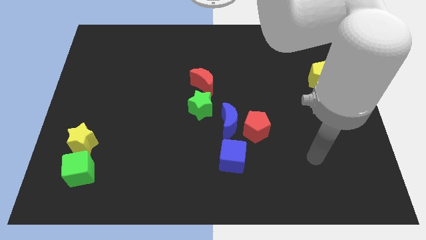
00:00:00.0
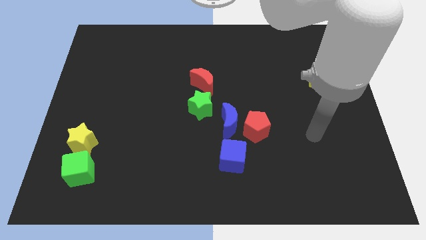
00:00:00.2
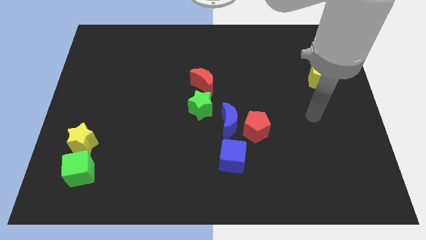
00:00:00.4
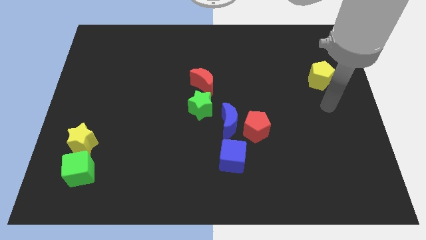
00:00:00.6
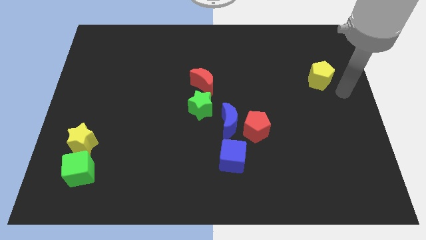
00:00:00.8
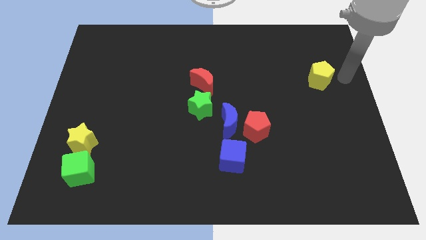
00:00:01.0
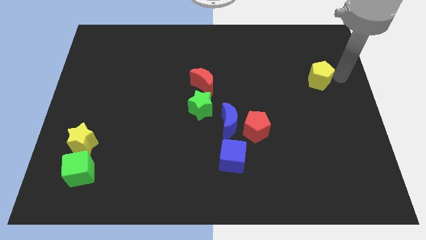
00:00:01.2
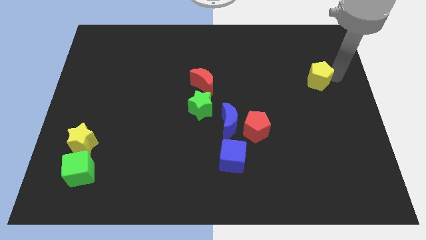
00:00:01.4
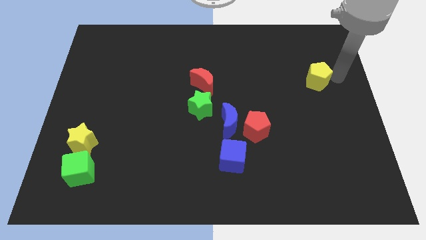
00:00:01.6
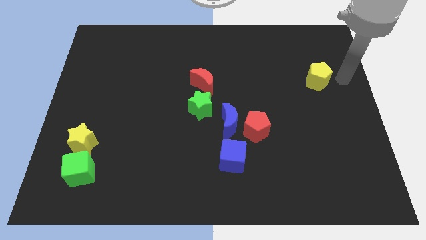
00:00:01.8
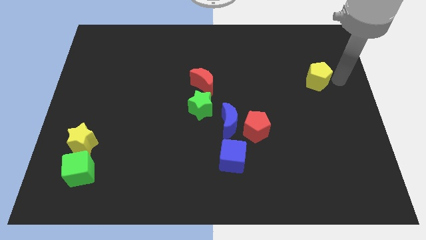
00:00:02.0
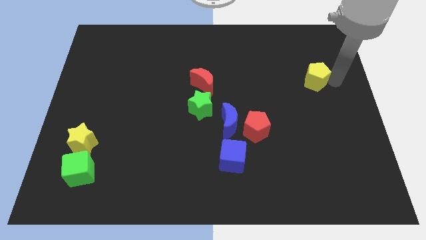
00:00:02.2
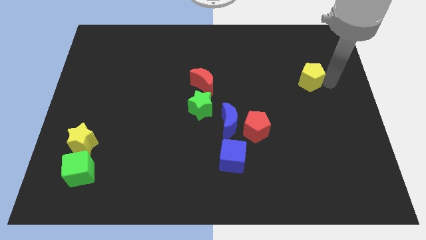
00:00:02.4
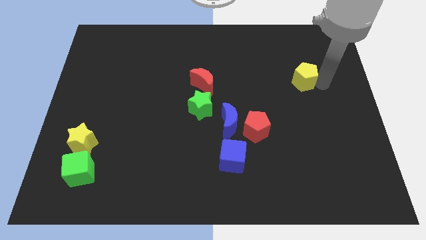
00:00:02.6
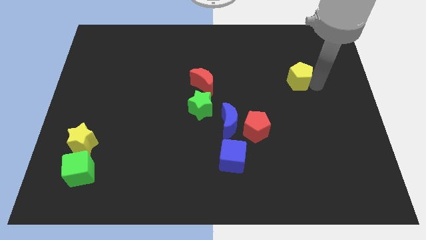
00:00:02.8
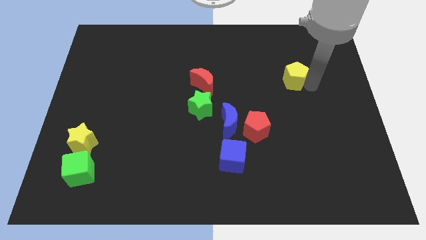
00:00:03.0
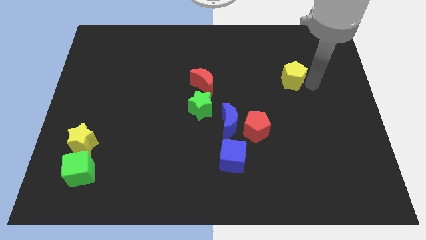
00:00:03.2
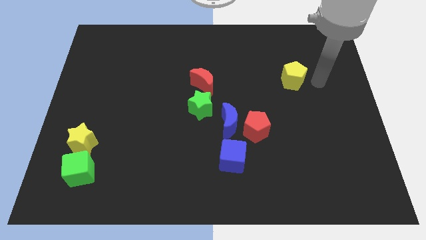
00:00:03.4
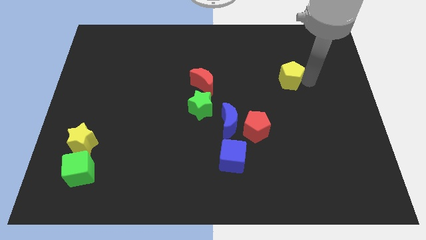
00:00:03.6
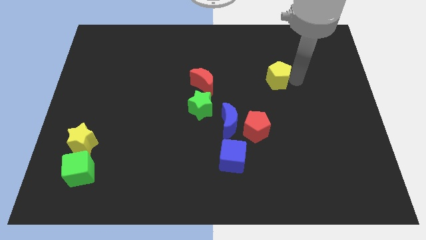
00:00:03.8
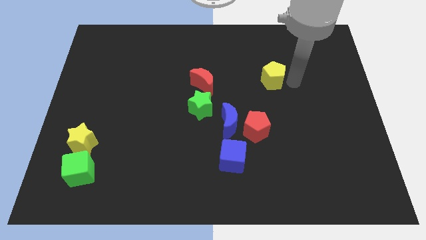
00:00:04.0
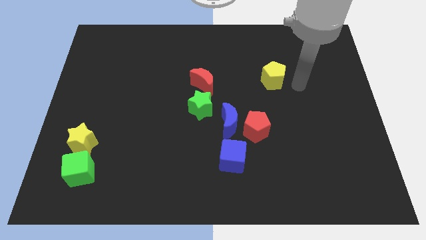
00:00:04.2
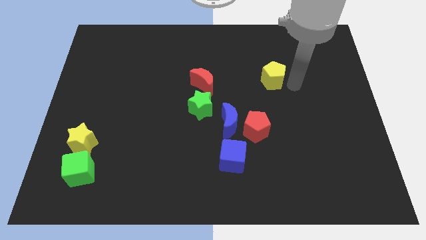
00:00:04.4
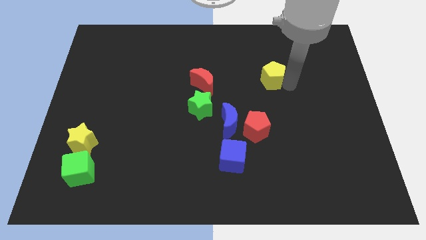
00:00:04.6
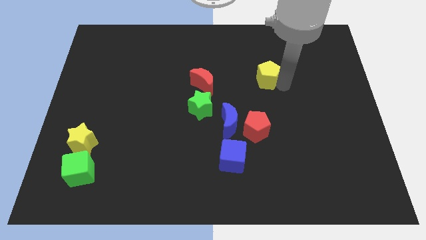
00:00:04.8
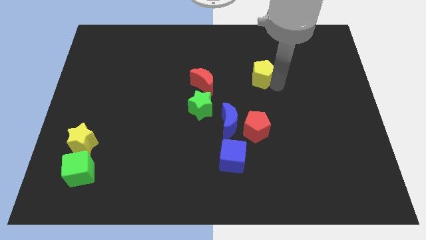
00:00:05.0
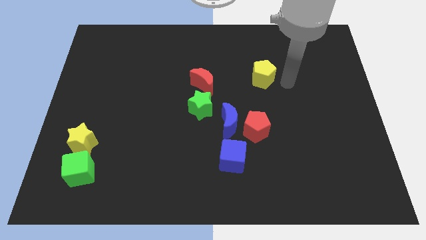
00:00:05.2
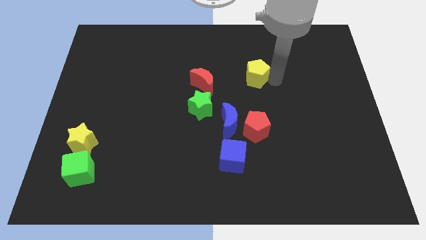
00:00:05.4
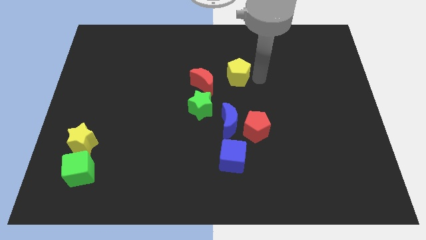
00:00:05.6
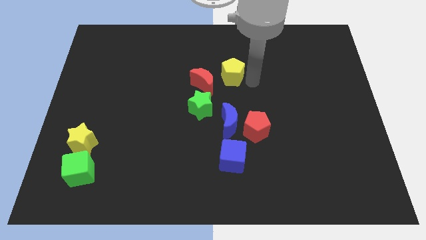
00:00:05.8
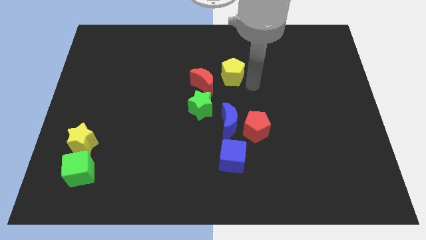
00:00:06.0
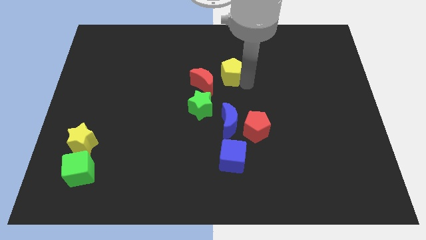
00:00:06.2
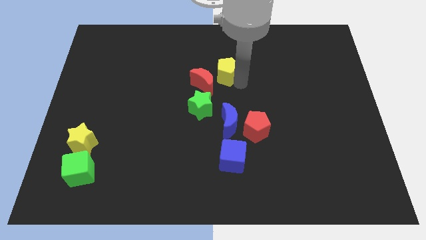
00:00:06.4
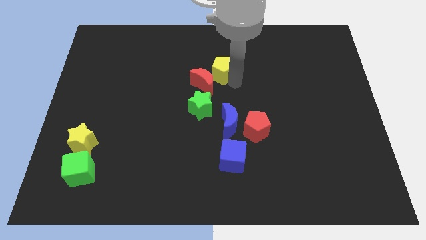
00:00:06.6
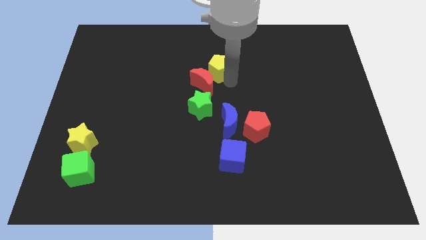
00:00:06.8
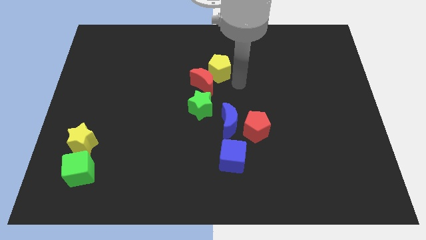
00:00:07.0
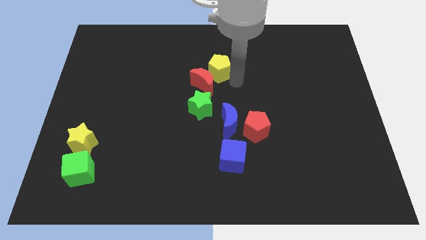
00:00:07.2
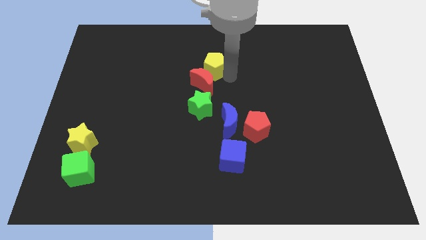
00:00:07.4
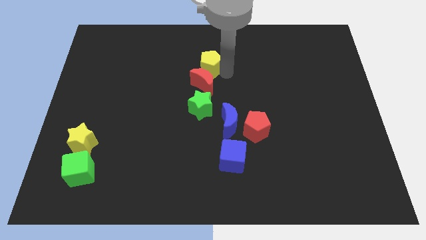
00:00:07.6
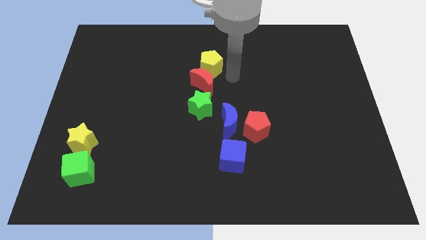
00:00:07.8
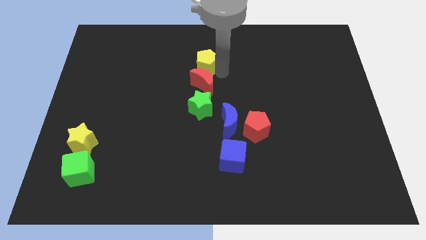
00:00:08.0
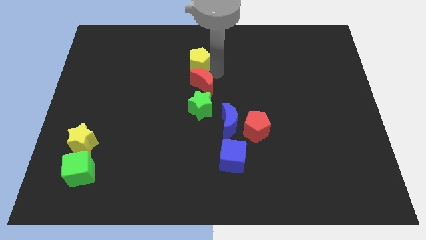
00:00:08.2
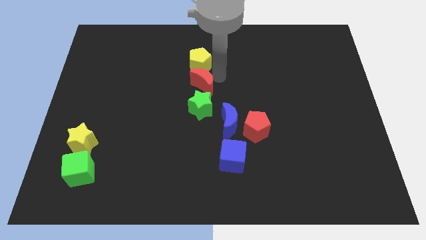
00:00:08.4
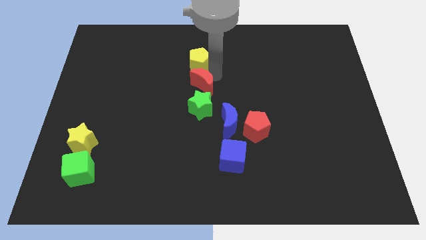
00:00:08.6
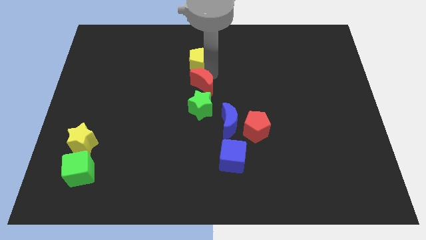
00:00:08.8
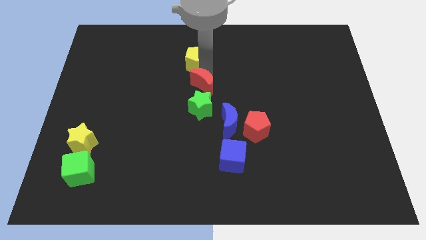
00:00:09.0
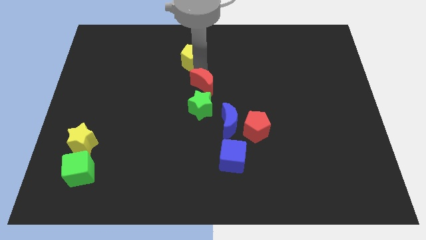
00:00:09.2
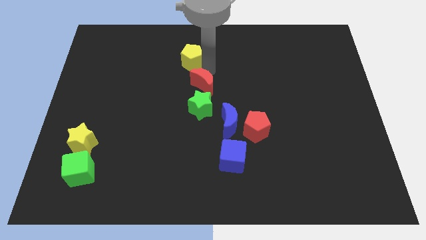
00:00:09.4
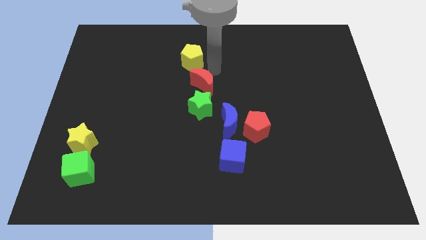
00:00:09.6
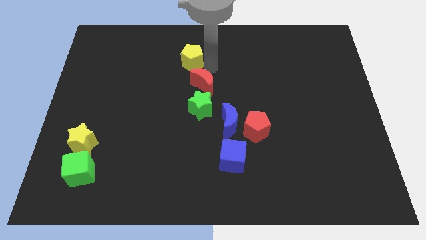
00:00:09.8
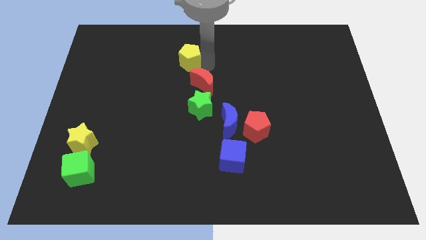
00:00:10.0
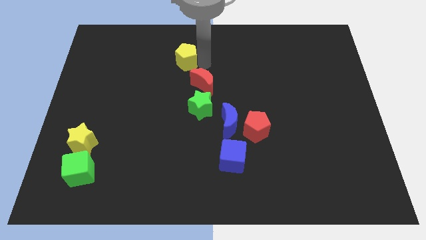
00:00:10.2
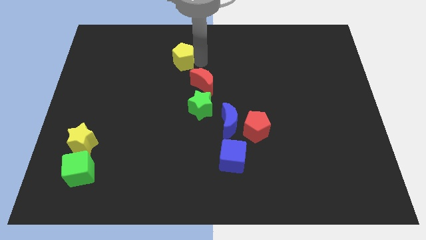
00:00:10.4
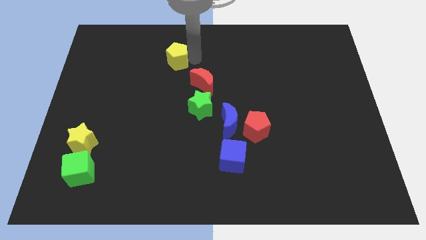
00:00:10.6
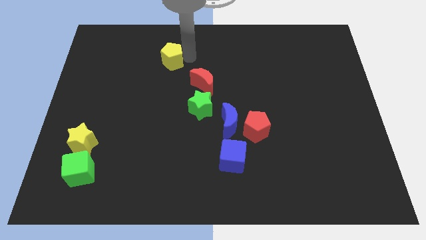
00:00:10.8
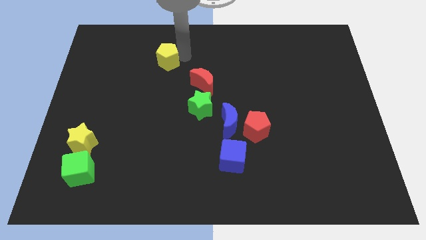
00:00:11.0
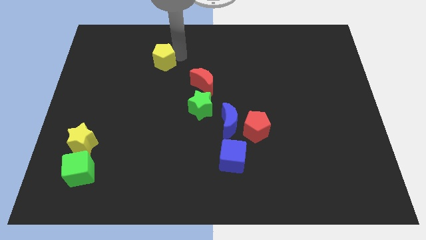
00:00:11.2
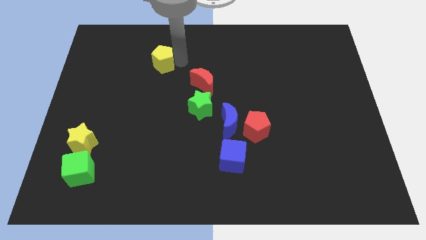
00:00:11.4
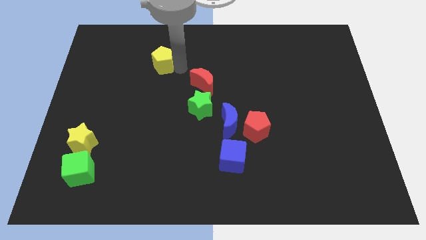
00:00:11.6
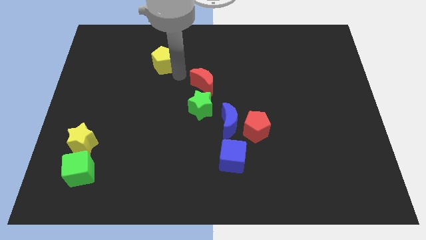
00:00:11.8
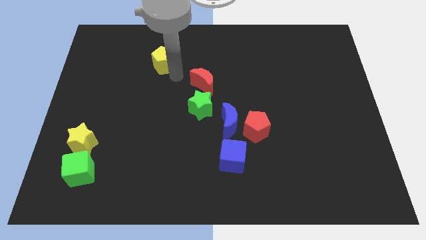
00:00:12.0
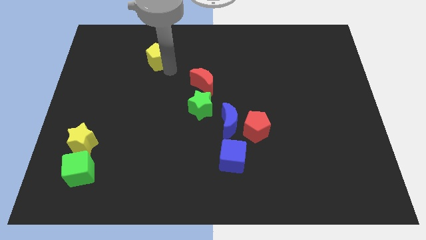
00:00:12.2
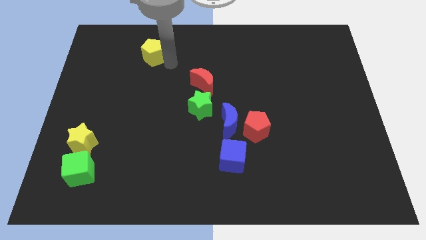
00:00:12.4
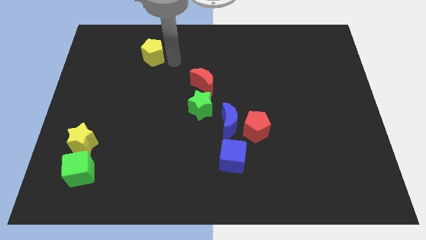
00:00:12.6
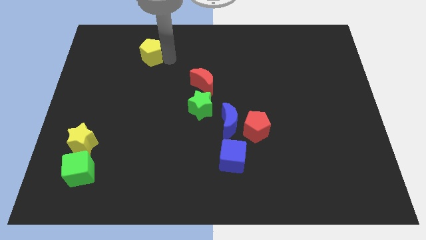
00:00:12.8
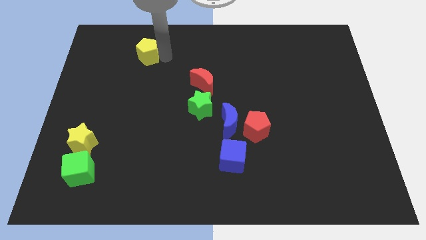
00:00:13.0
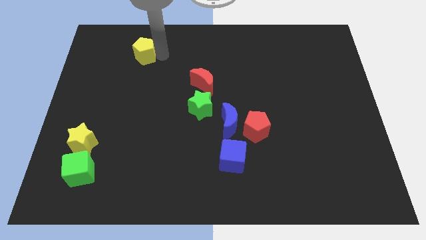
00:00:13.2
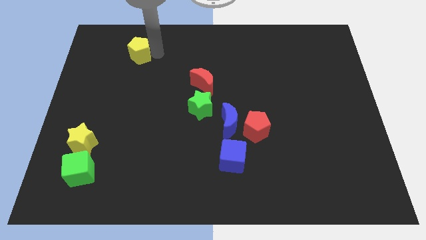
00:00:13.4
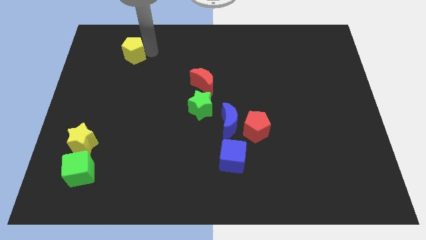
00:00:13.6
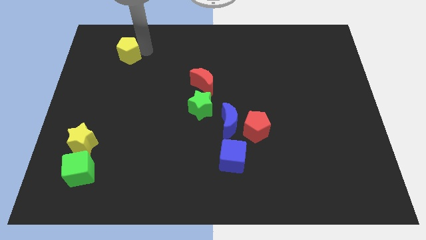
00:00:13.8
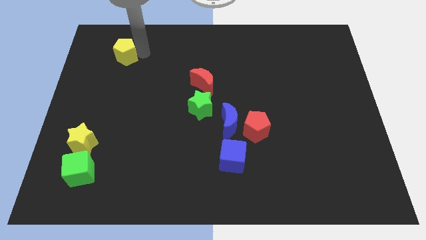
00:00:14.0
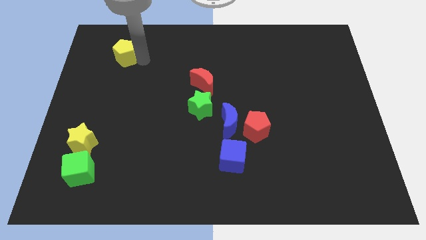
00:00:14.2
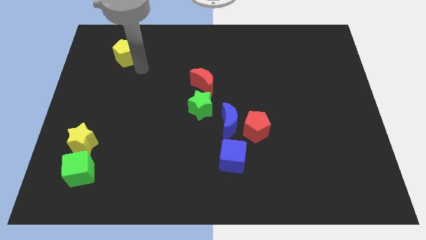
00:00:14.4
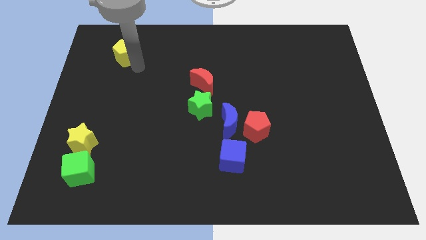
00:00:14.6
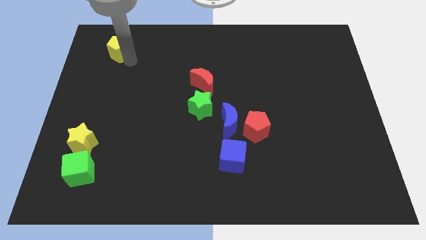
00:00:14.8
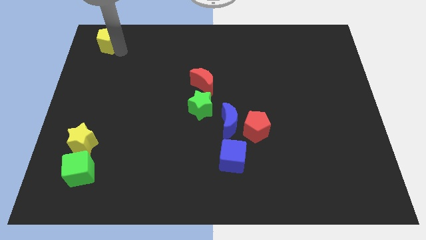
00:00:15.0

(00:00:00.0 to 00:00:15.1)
put the yellow pentagon to the top left corner
